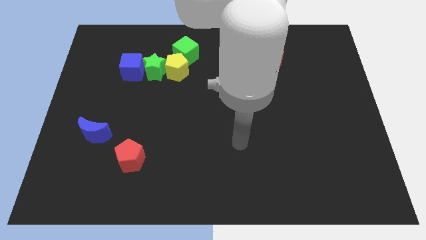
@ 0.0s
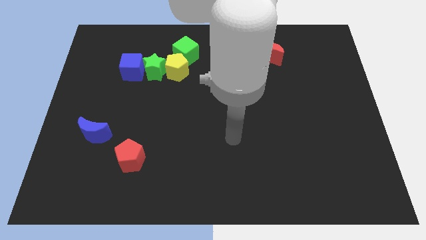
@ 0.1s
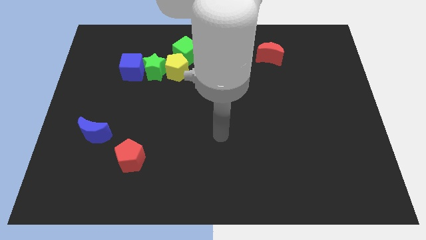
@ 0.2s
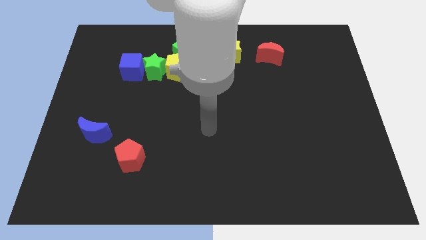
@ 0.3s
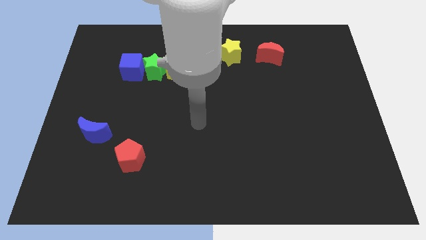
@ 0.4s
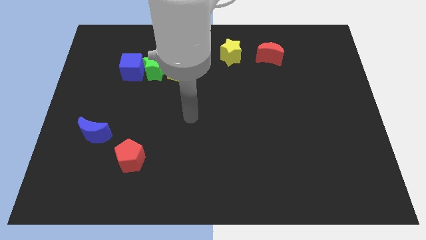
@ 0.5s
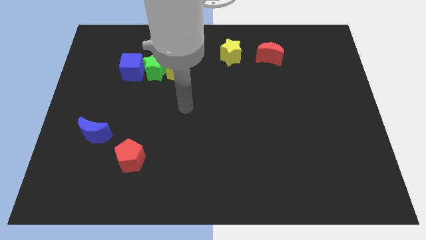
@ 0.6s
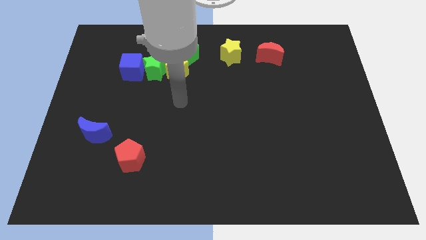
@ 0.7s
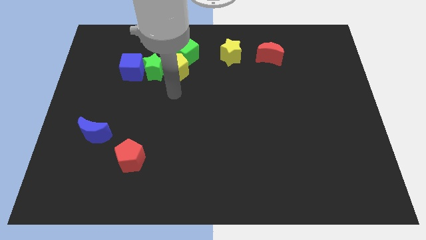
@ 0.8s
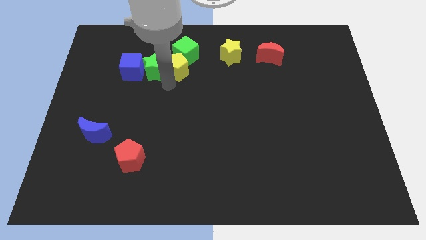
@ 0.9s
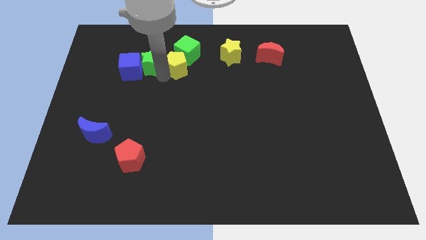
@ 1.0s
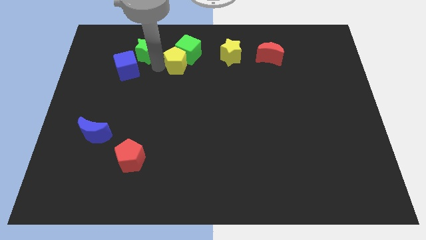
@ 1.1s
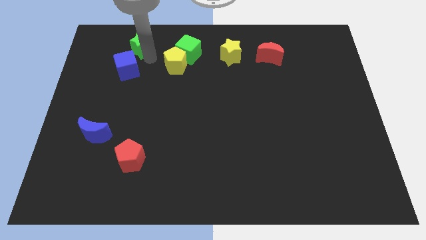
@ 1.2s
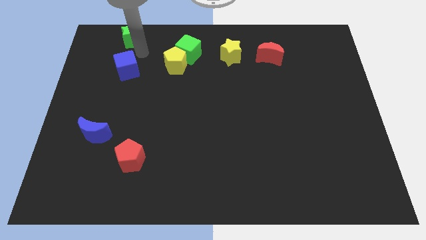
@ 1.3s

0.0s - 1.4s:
pull the blue cube apart from the green star

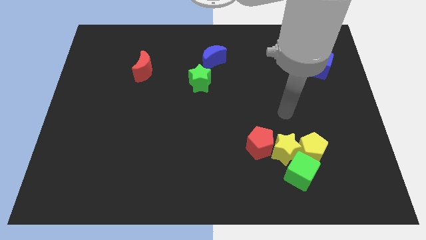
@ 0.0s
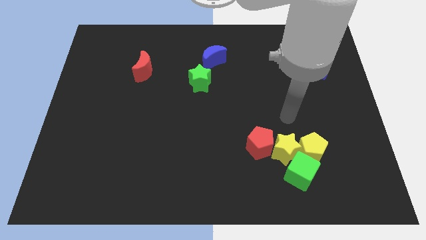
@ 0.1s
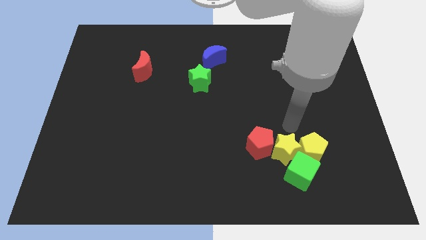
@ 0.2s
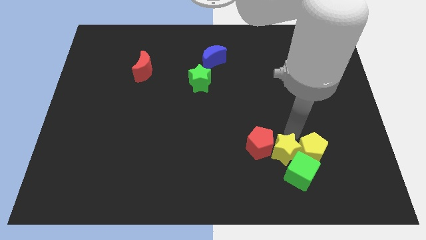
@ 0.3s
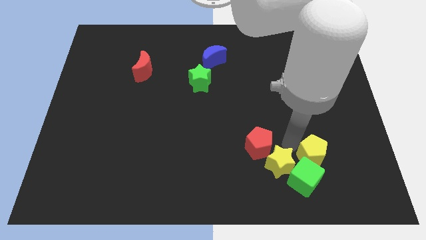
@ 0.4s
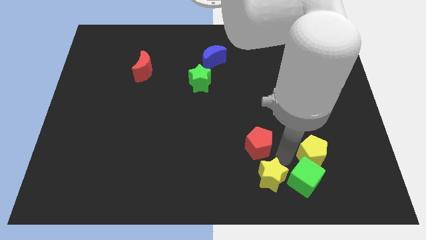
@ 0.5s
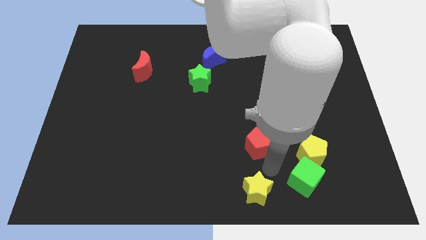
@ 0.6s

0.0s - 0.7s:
pull the red pentagon apart from the yellow star

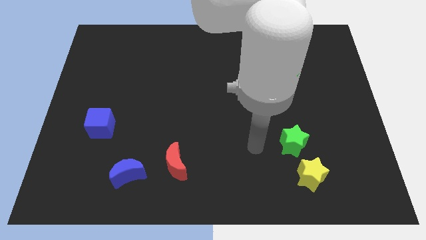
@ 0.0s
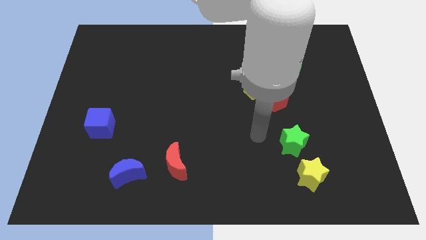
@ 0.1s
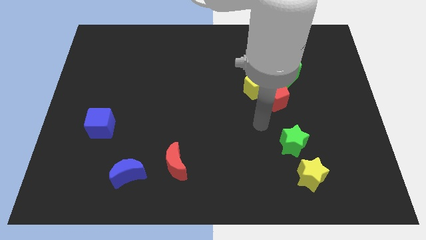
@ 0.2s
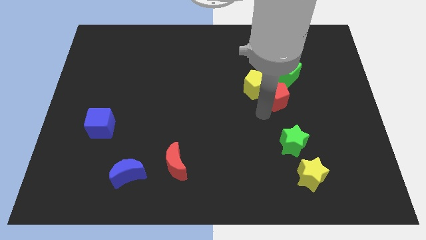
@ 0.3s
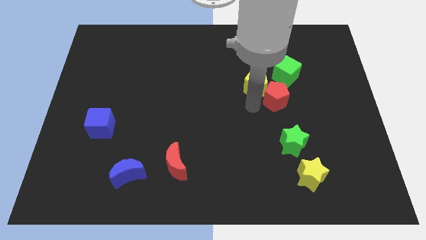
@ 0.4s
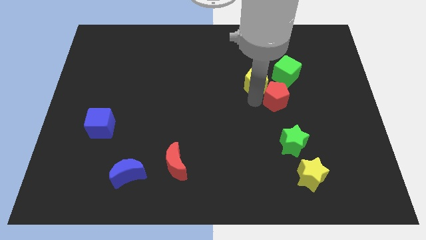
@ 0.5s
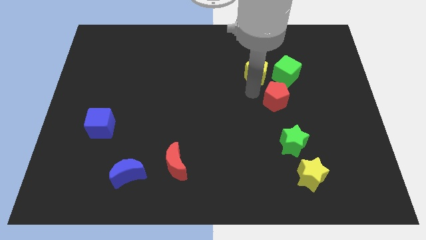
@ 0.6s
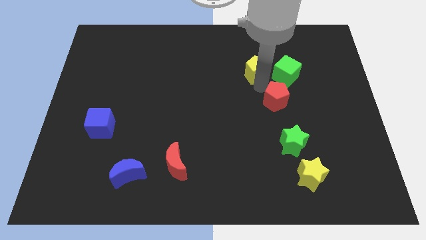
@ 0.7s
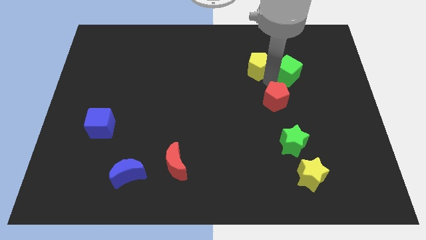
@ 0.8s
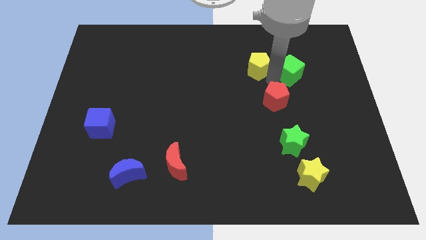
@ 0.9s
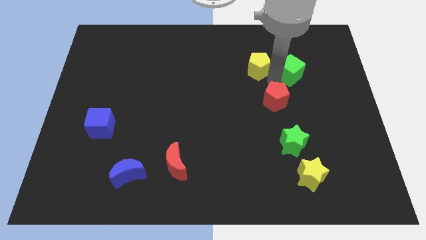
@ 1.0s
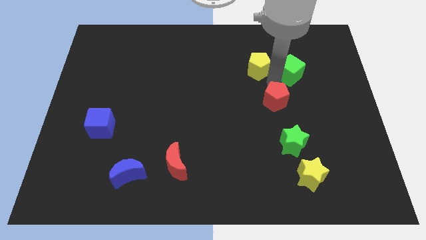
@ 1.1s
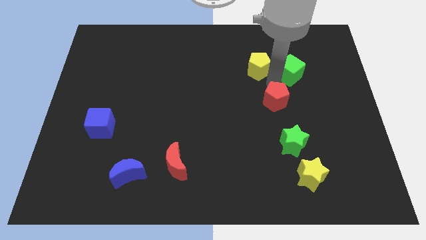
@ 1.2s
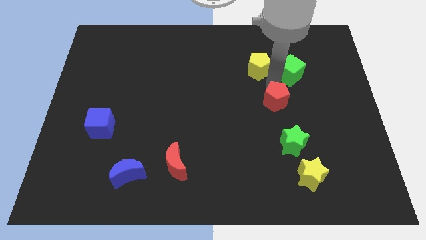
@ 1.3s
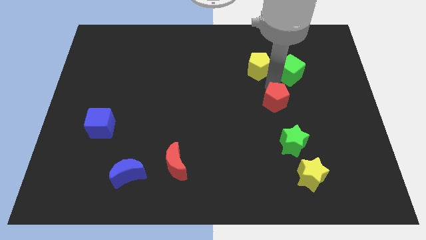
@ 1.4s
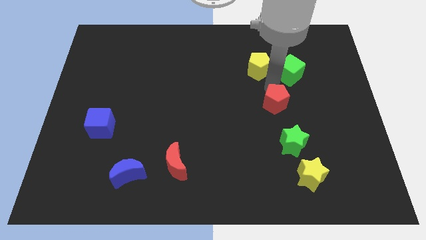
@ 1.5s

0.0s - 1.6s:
separate the red pentagon from the yellow pentagon and green cube

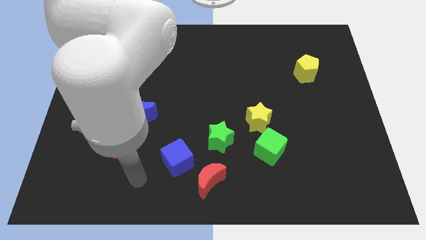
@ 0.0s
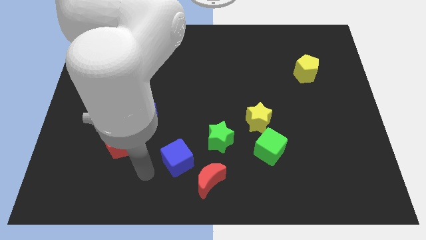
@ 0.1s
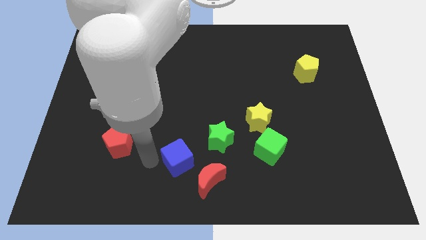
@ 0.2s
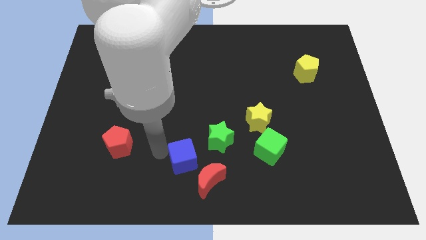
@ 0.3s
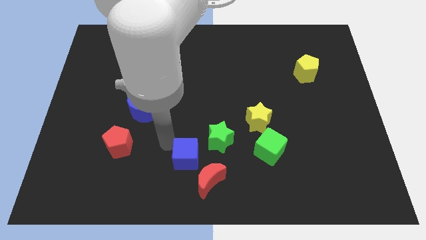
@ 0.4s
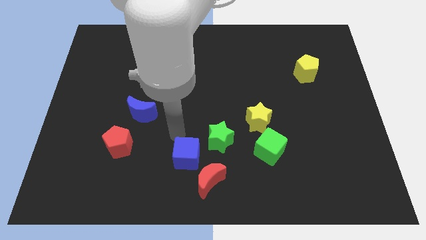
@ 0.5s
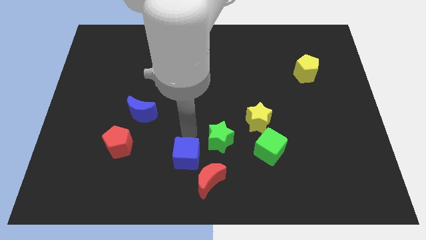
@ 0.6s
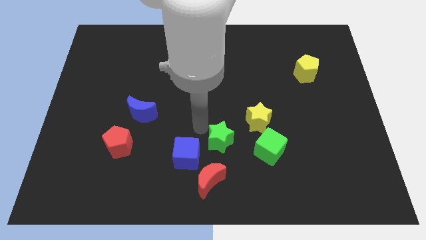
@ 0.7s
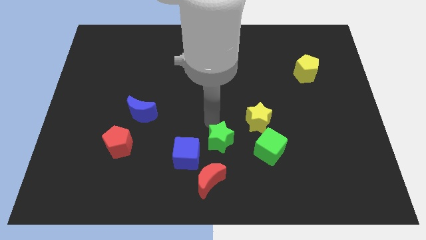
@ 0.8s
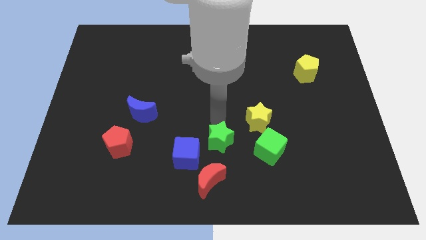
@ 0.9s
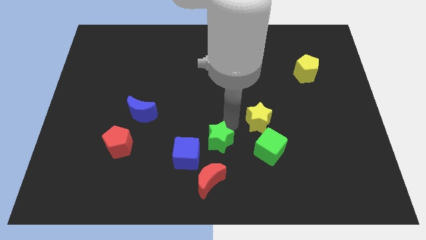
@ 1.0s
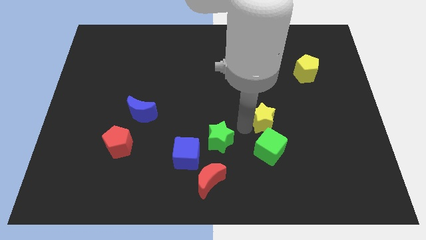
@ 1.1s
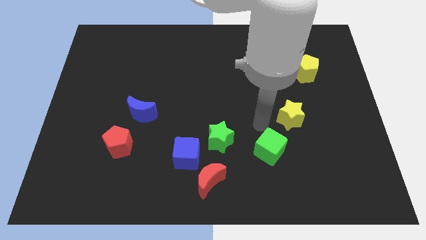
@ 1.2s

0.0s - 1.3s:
separate the green cube from the yellow star

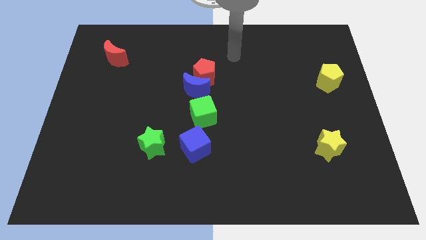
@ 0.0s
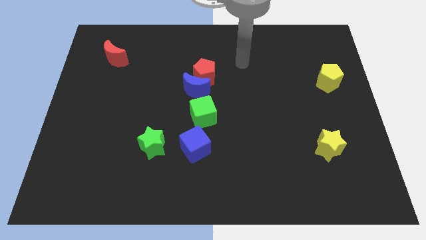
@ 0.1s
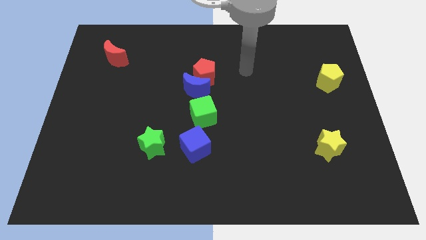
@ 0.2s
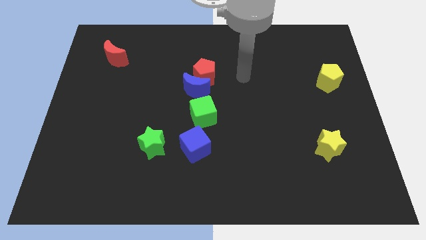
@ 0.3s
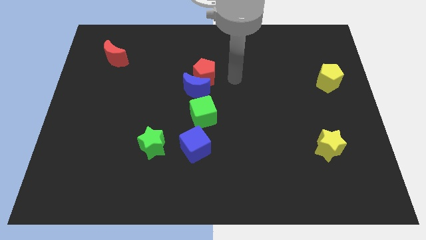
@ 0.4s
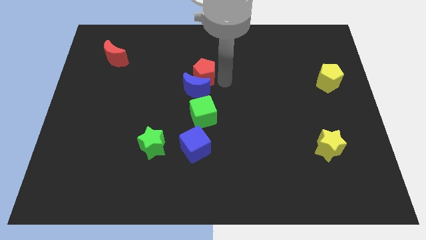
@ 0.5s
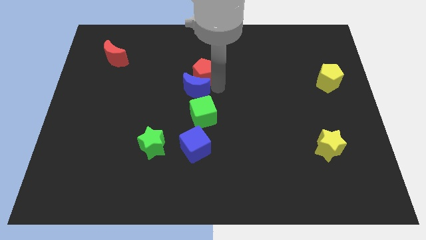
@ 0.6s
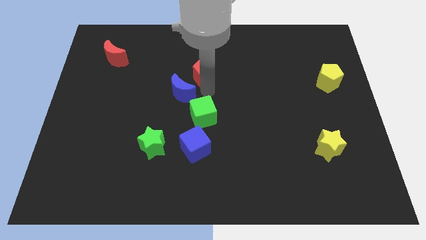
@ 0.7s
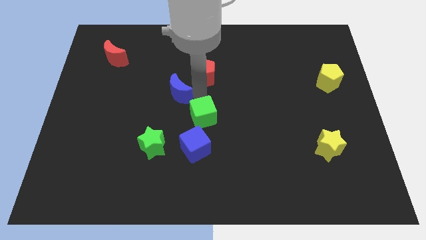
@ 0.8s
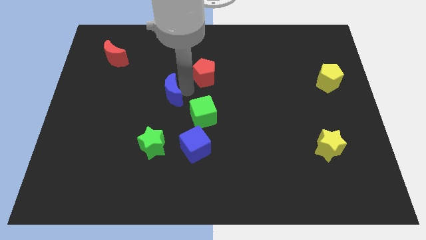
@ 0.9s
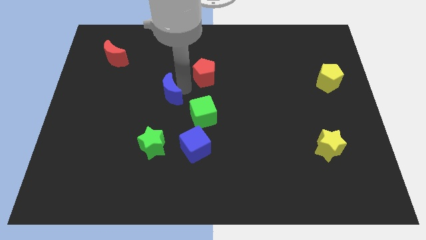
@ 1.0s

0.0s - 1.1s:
pull the red pentagon apart from the blue moon

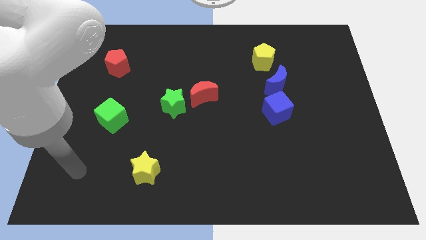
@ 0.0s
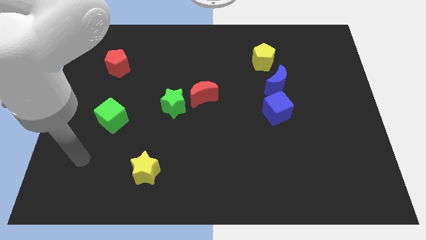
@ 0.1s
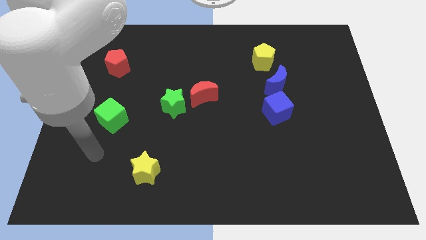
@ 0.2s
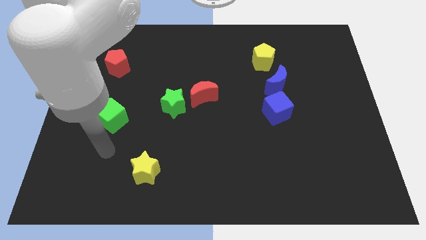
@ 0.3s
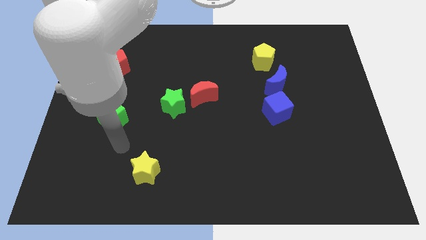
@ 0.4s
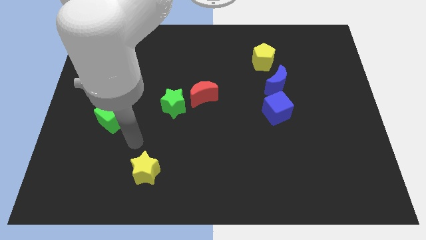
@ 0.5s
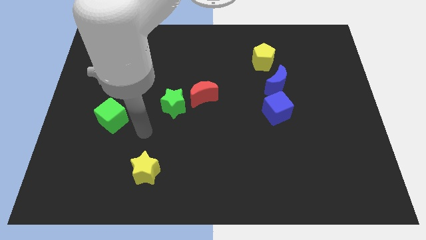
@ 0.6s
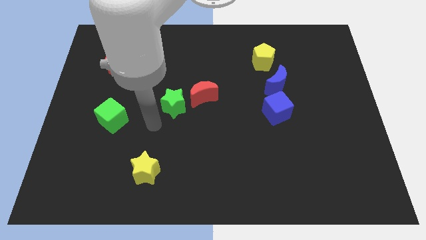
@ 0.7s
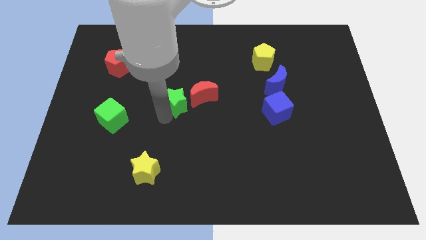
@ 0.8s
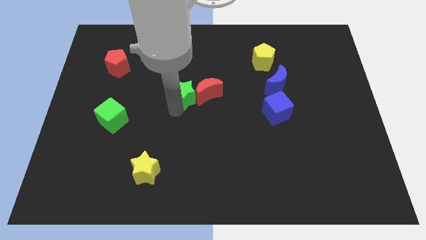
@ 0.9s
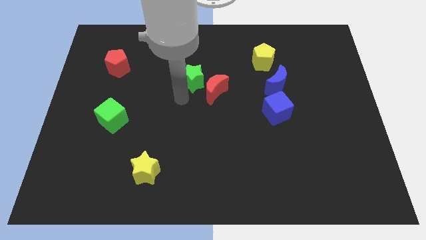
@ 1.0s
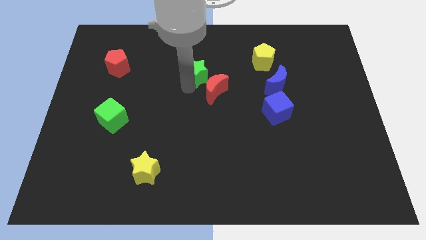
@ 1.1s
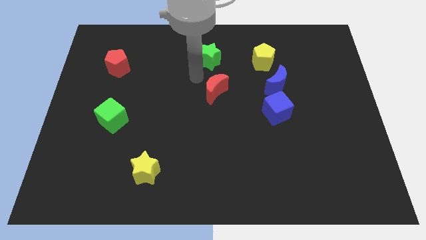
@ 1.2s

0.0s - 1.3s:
pull the red moon apart from the green star

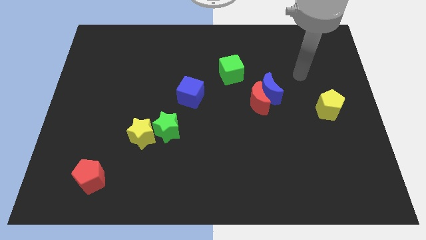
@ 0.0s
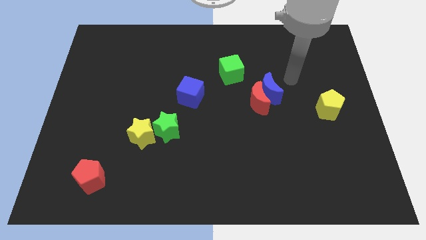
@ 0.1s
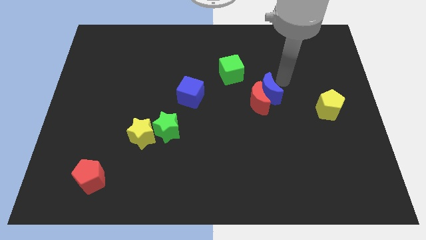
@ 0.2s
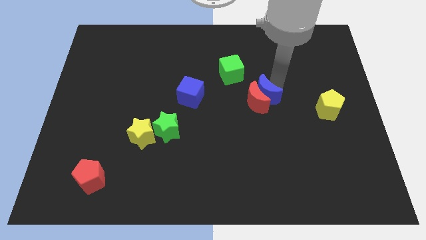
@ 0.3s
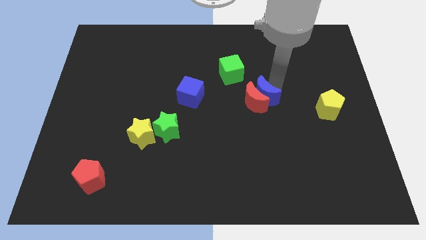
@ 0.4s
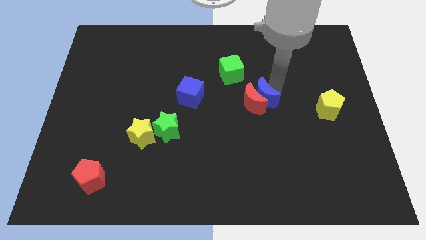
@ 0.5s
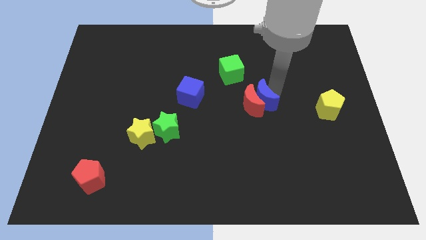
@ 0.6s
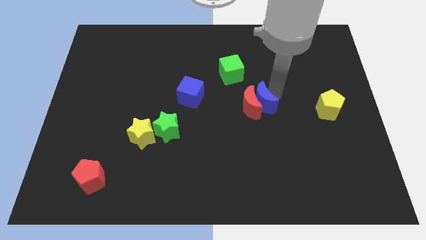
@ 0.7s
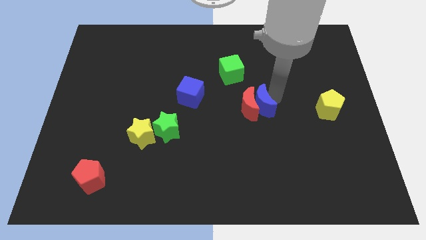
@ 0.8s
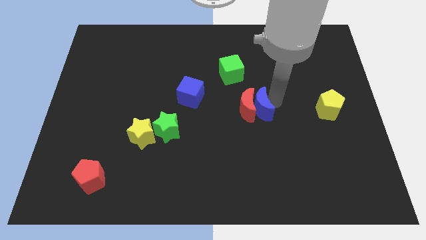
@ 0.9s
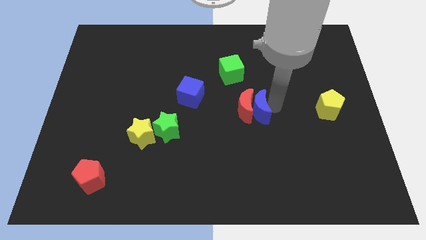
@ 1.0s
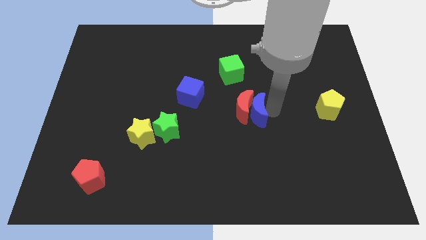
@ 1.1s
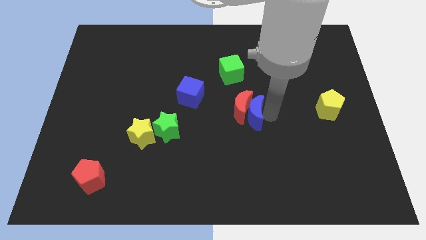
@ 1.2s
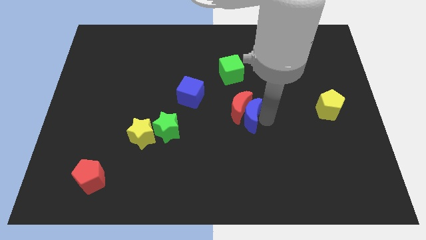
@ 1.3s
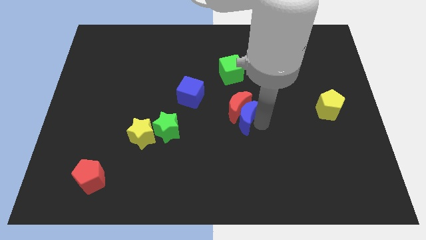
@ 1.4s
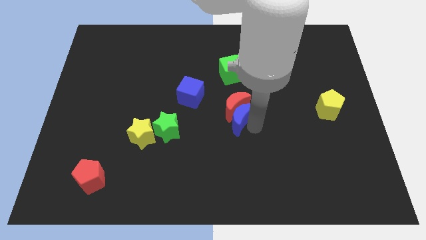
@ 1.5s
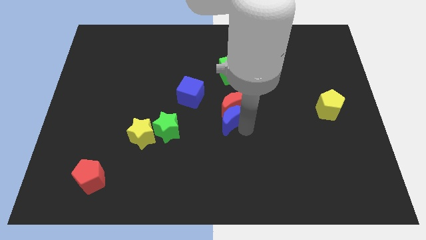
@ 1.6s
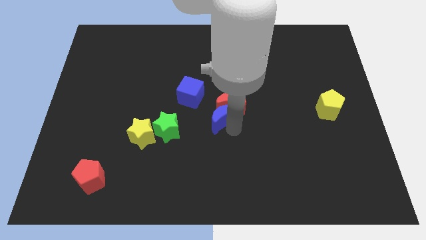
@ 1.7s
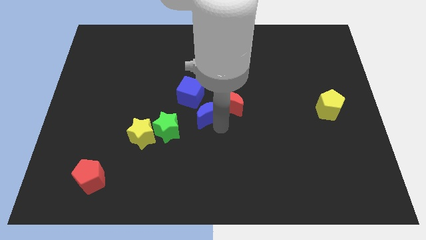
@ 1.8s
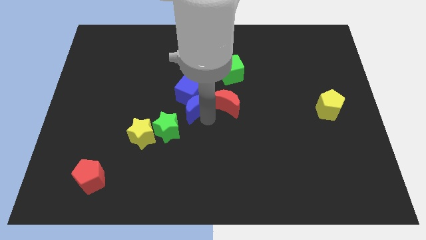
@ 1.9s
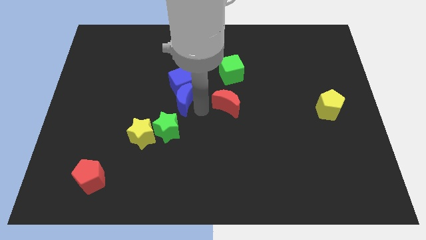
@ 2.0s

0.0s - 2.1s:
move the red moon away from the blue moon
